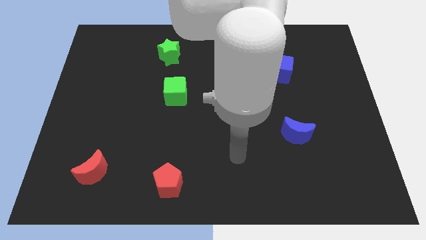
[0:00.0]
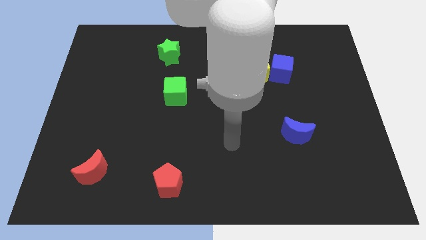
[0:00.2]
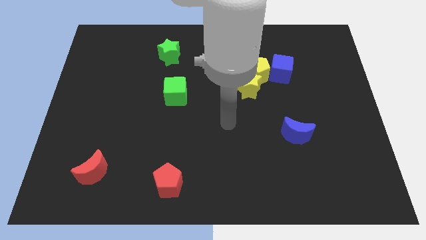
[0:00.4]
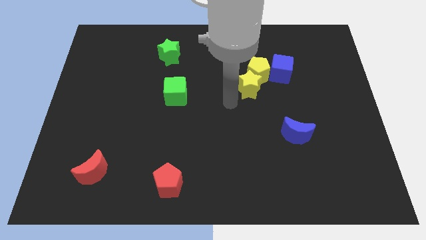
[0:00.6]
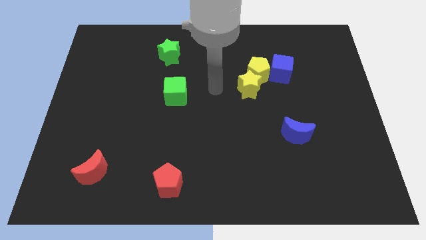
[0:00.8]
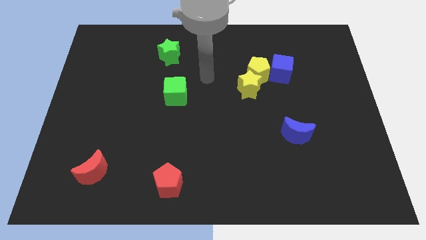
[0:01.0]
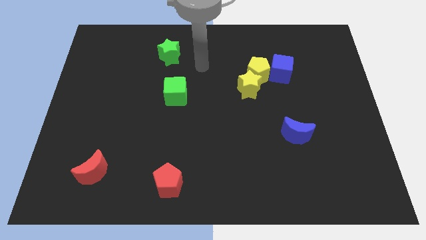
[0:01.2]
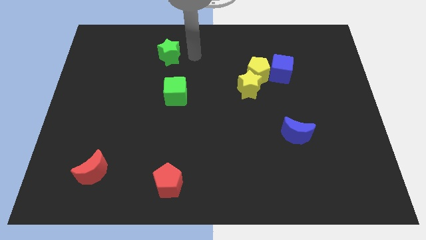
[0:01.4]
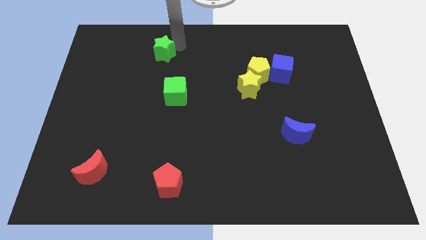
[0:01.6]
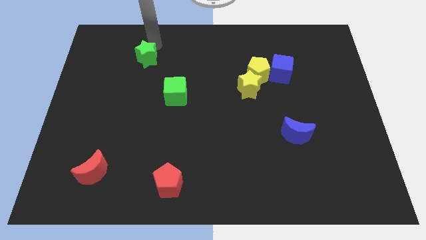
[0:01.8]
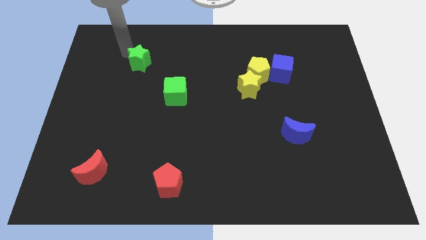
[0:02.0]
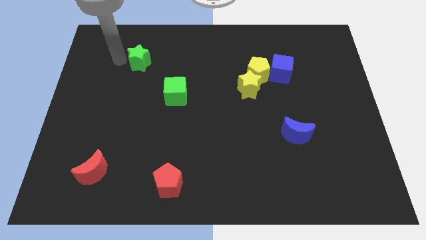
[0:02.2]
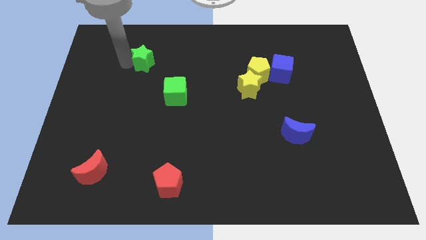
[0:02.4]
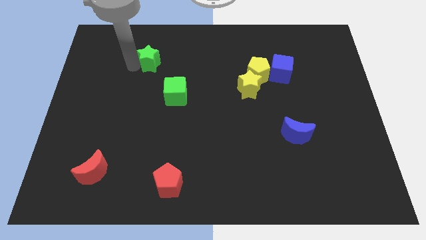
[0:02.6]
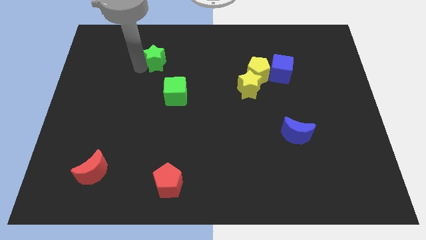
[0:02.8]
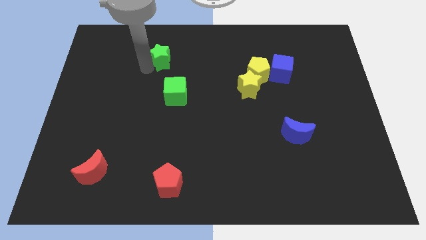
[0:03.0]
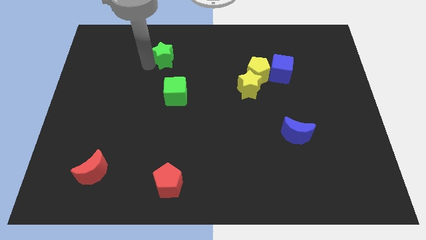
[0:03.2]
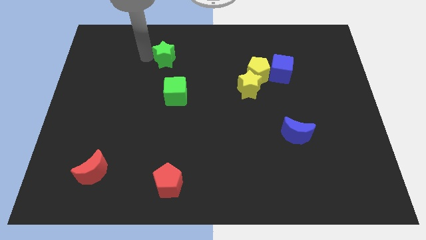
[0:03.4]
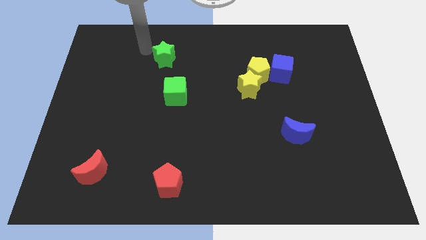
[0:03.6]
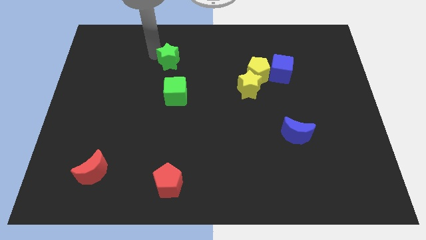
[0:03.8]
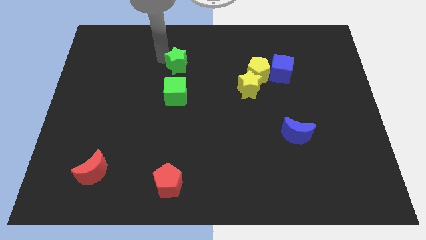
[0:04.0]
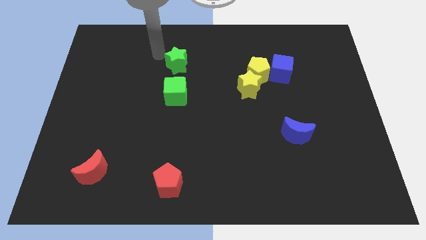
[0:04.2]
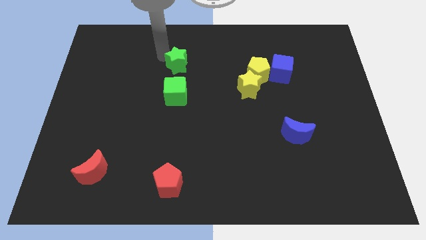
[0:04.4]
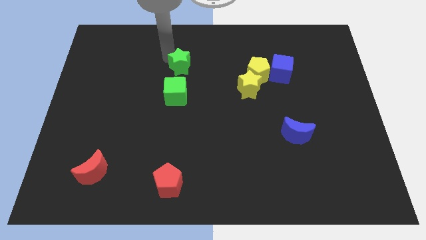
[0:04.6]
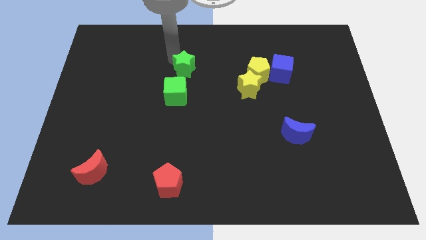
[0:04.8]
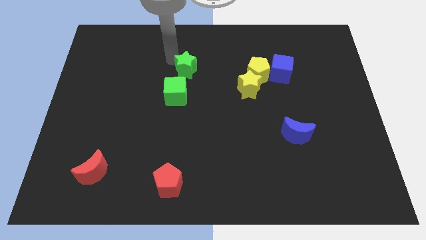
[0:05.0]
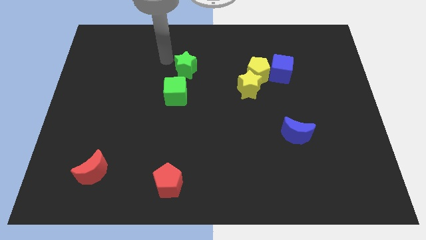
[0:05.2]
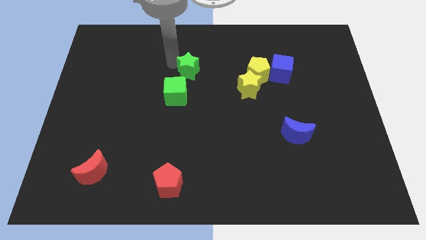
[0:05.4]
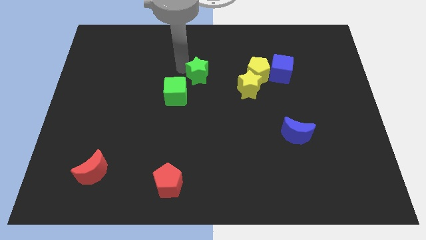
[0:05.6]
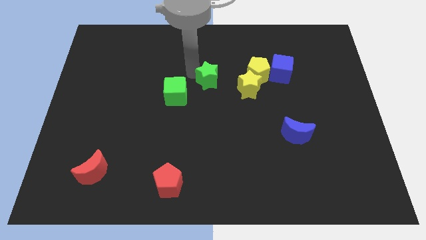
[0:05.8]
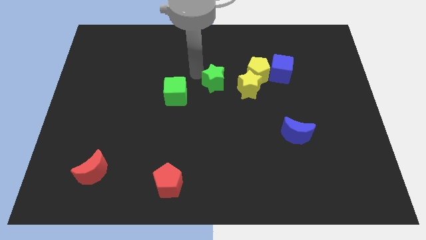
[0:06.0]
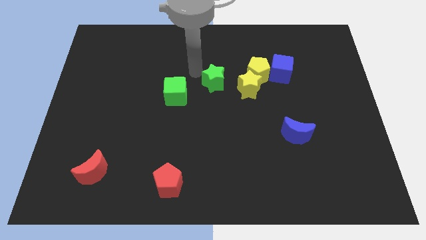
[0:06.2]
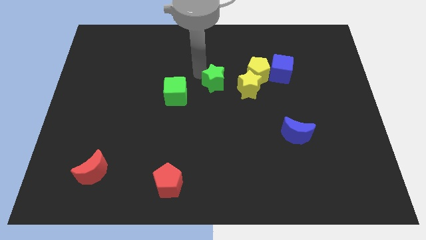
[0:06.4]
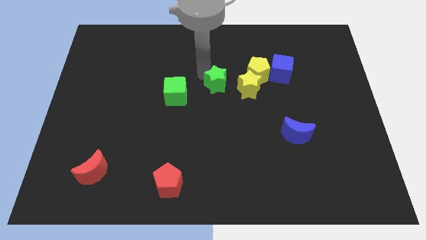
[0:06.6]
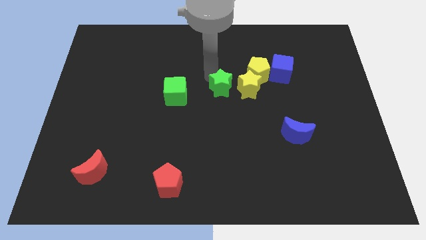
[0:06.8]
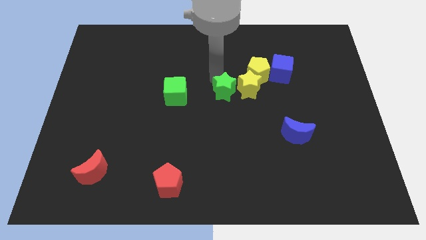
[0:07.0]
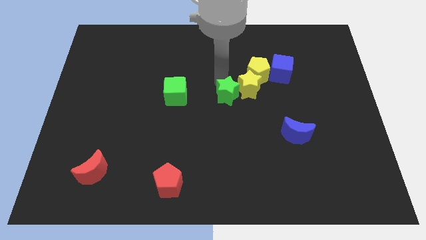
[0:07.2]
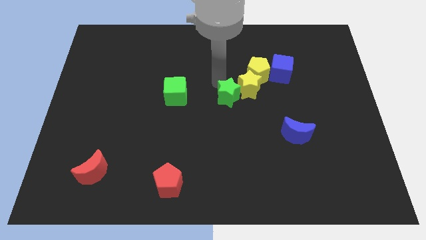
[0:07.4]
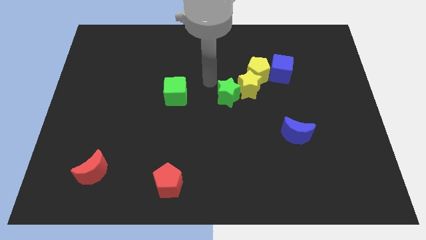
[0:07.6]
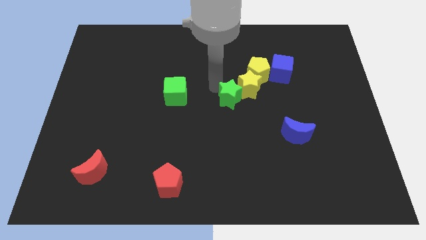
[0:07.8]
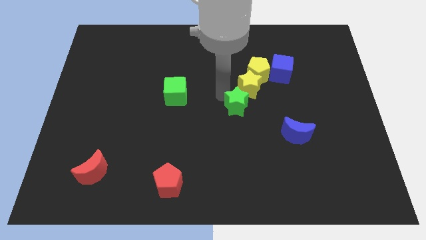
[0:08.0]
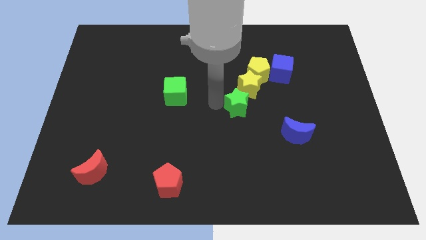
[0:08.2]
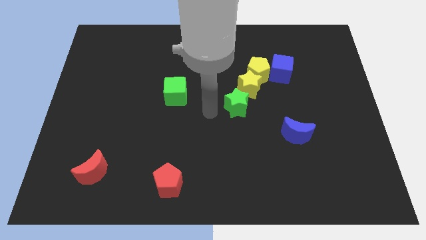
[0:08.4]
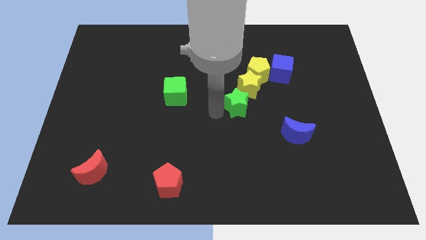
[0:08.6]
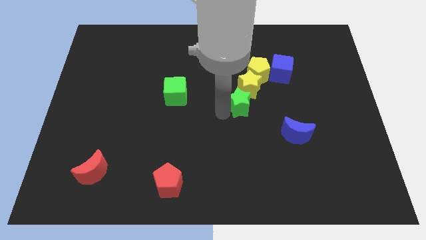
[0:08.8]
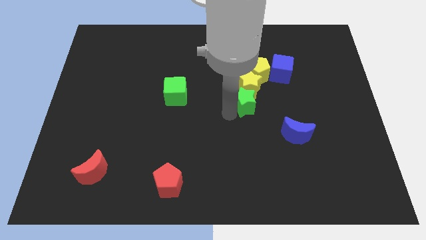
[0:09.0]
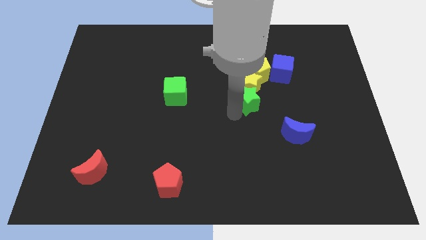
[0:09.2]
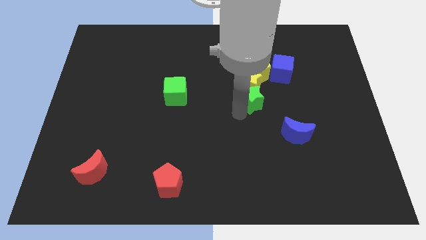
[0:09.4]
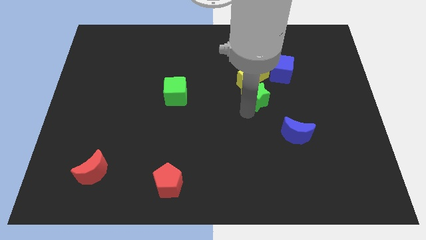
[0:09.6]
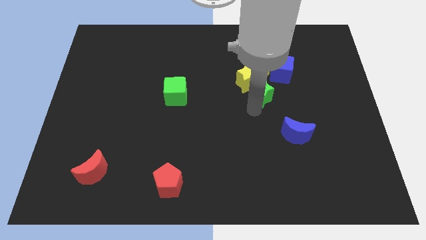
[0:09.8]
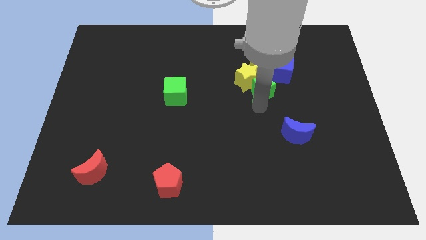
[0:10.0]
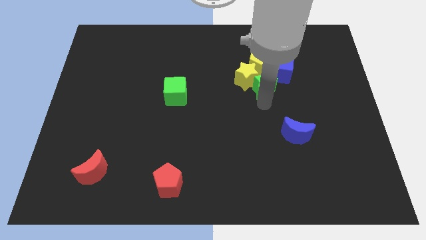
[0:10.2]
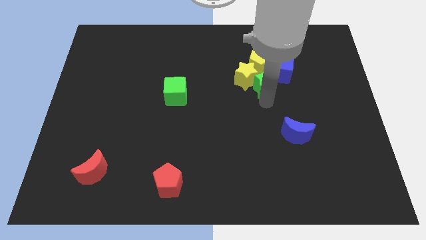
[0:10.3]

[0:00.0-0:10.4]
push the green star diagonally down and to the right of the yellow pentagon

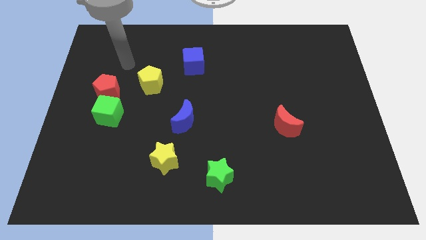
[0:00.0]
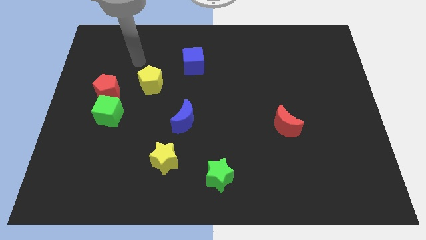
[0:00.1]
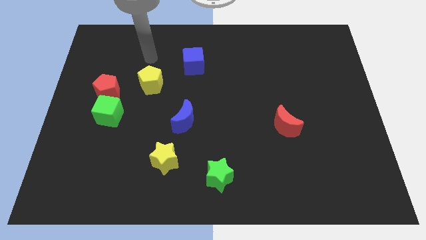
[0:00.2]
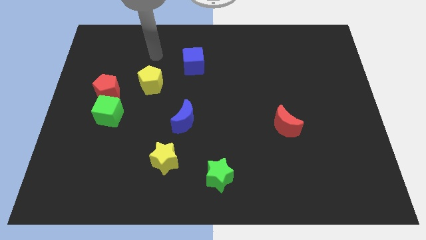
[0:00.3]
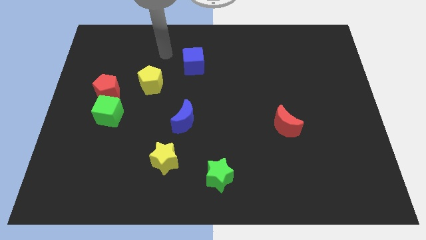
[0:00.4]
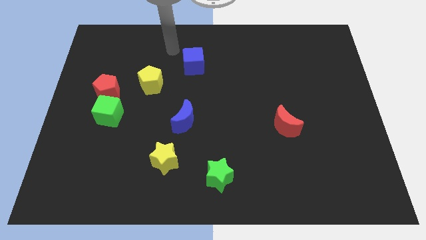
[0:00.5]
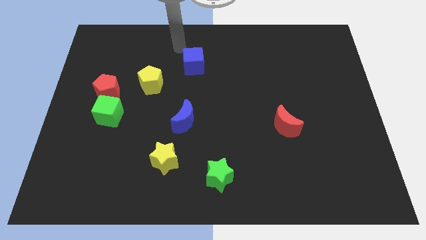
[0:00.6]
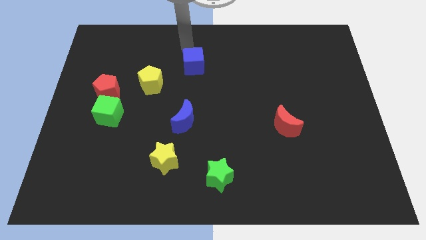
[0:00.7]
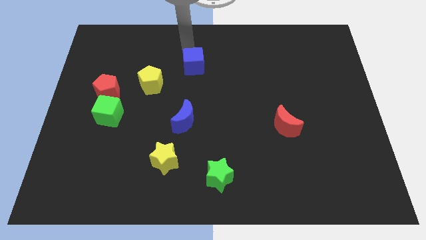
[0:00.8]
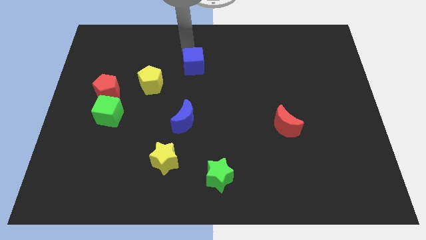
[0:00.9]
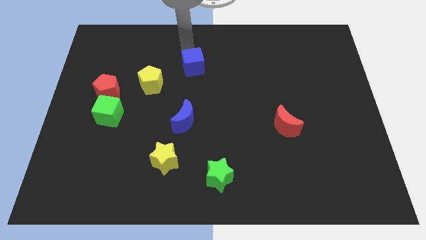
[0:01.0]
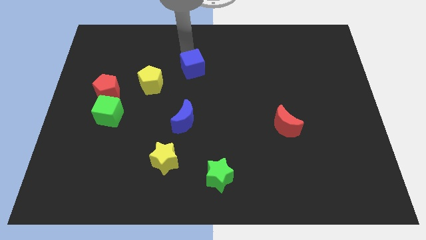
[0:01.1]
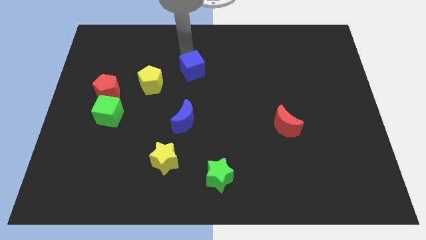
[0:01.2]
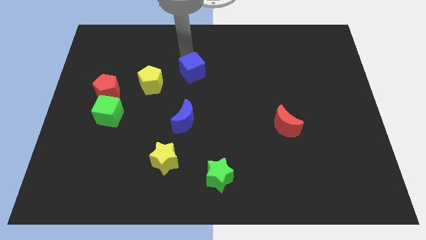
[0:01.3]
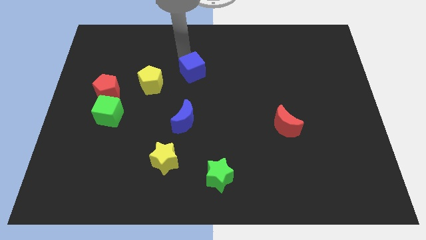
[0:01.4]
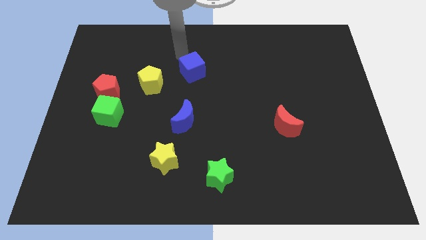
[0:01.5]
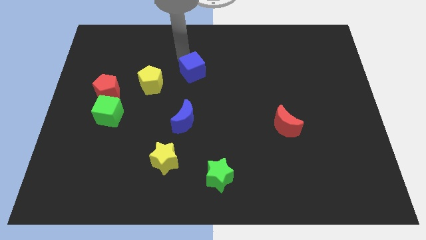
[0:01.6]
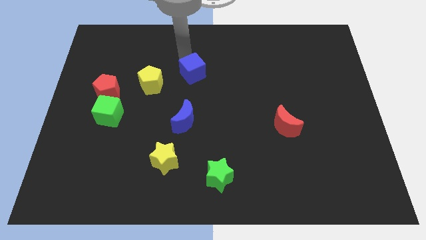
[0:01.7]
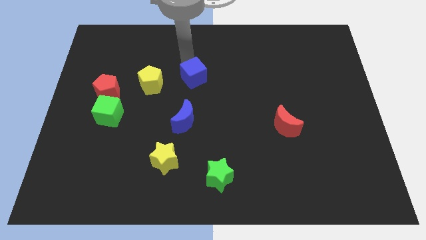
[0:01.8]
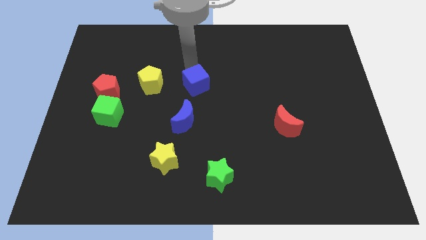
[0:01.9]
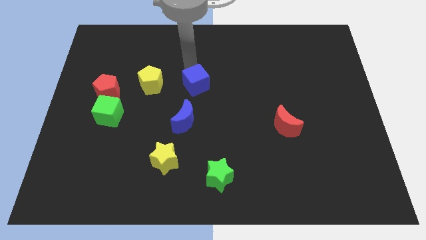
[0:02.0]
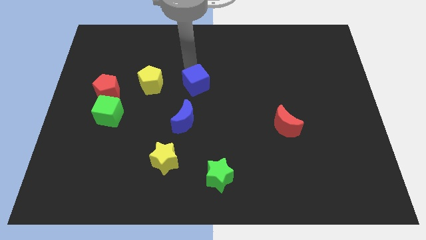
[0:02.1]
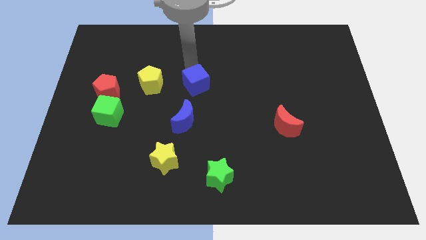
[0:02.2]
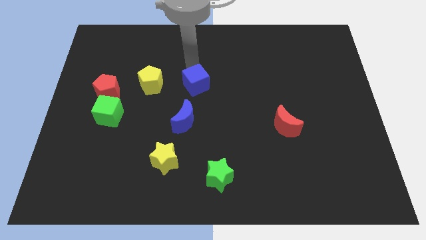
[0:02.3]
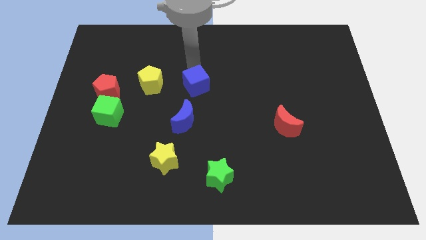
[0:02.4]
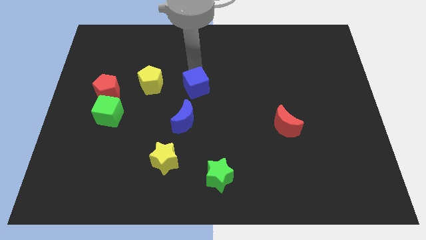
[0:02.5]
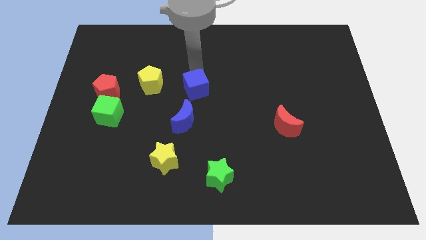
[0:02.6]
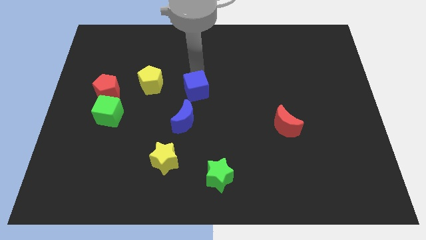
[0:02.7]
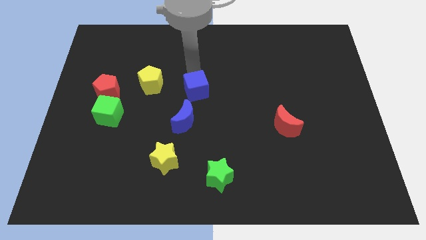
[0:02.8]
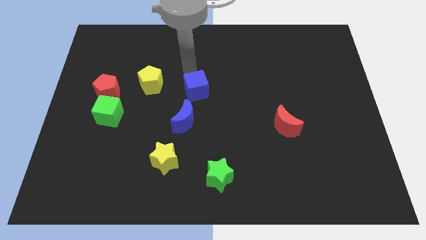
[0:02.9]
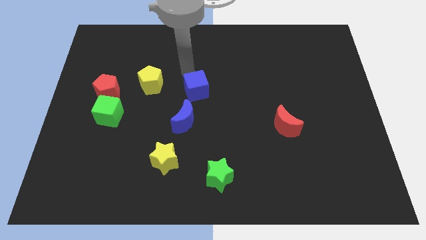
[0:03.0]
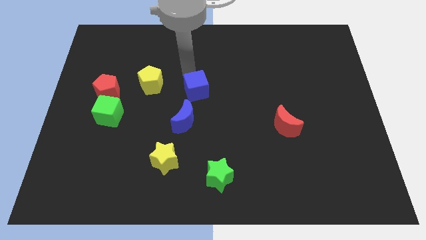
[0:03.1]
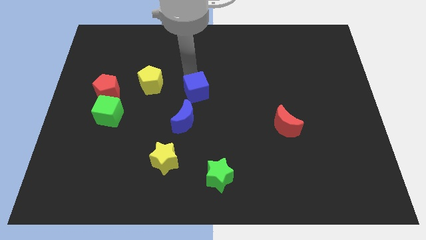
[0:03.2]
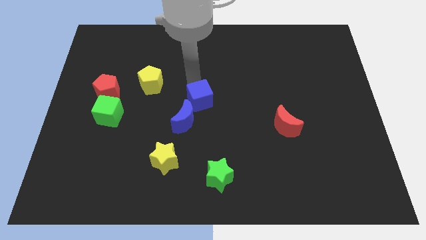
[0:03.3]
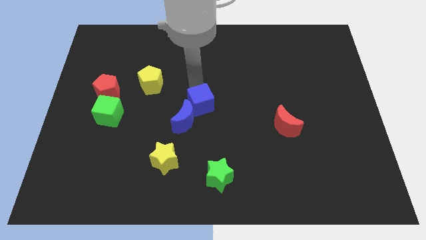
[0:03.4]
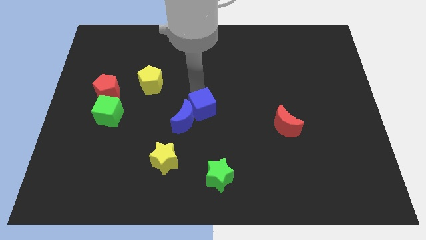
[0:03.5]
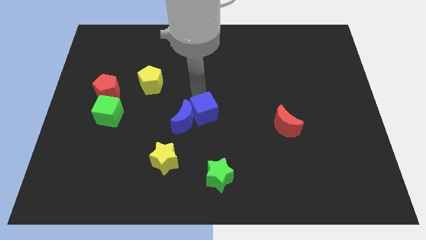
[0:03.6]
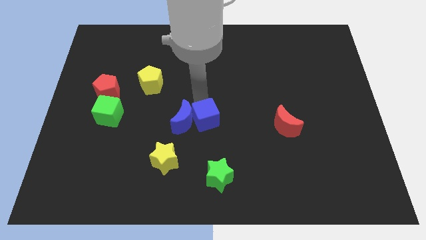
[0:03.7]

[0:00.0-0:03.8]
slide the blue cube to the top side of the green star
